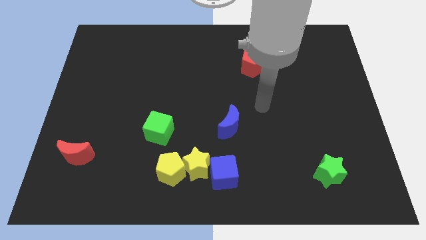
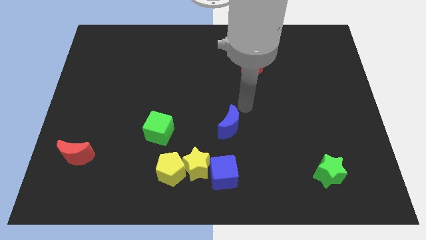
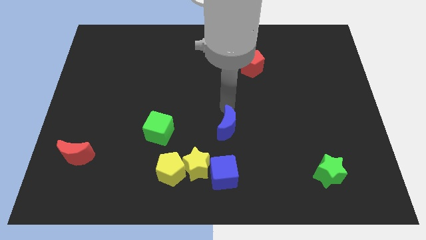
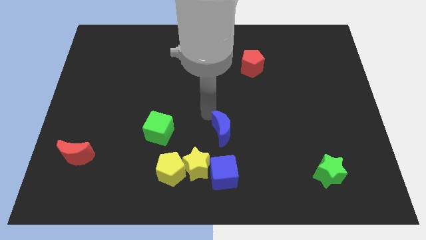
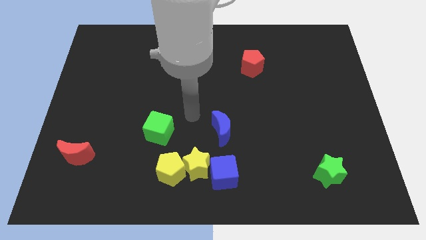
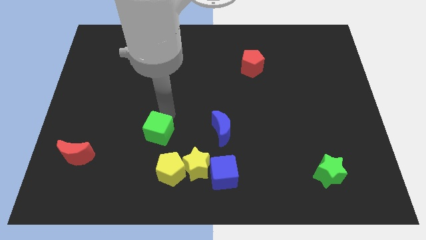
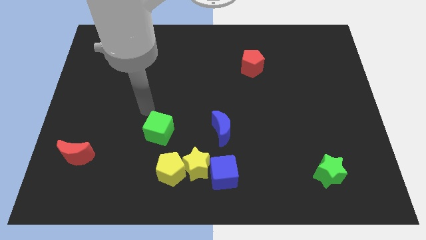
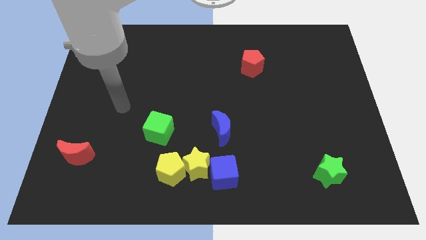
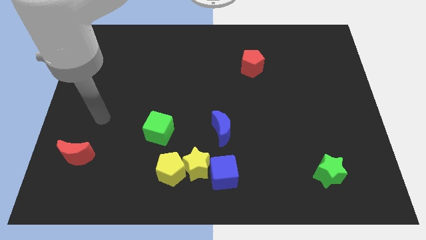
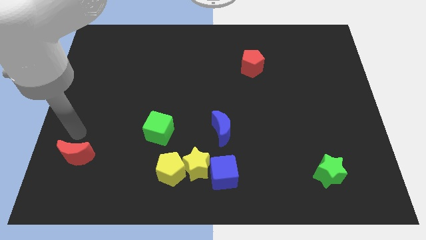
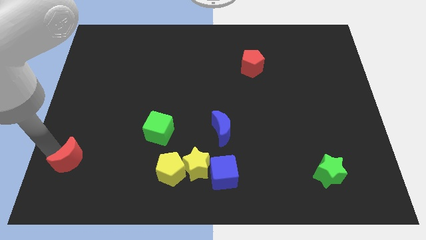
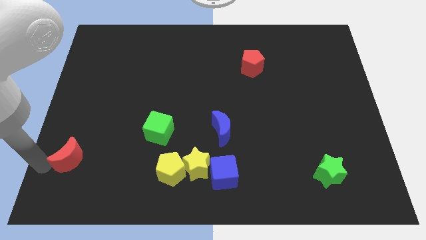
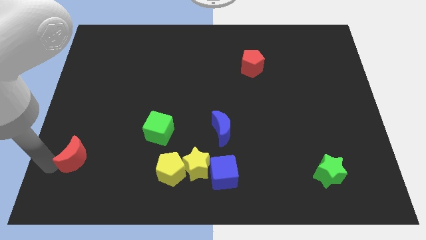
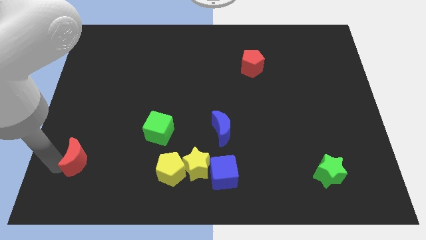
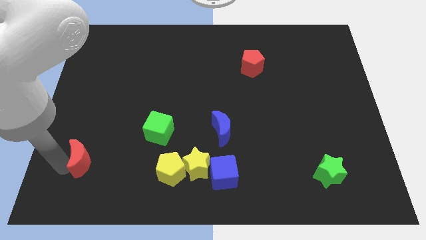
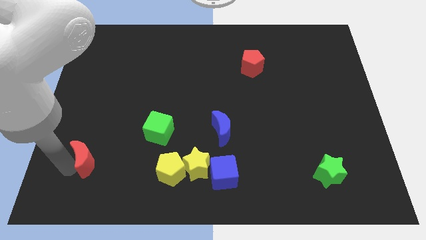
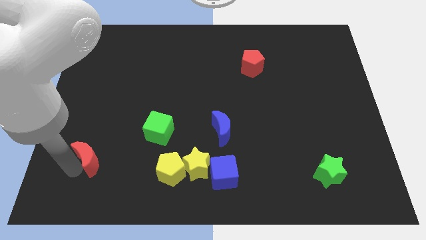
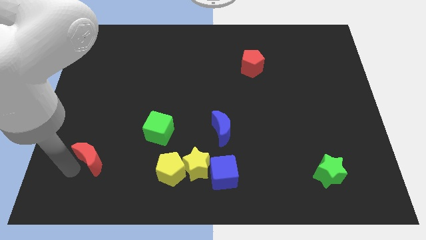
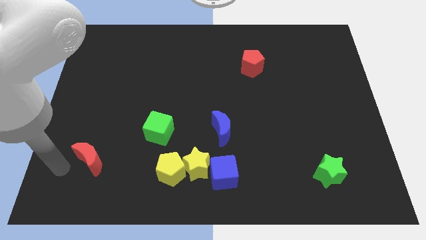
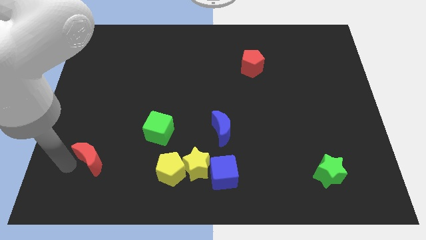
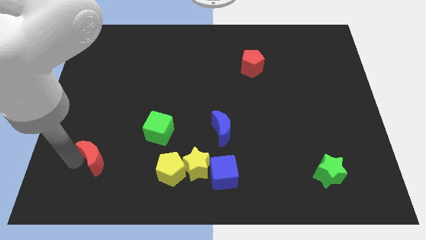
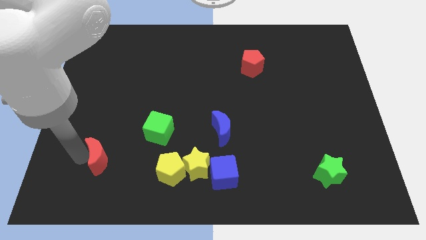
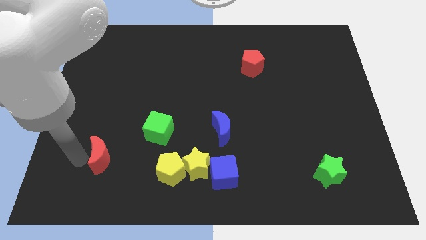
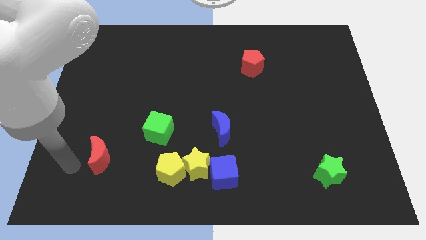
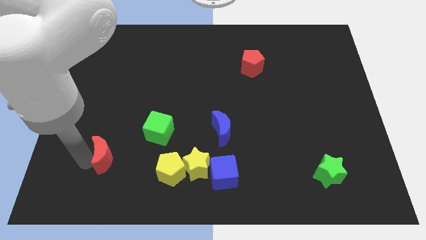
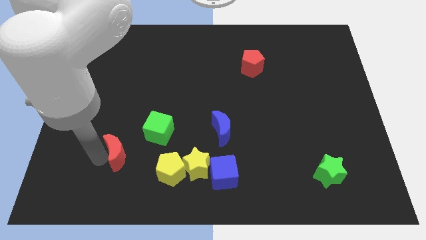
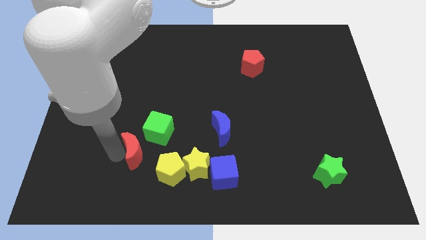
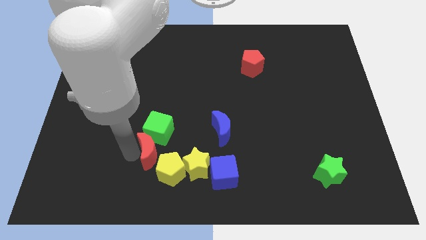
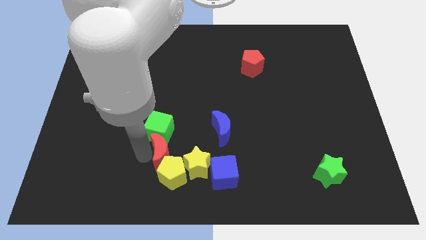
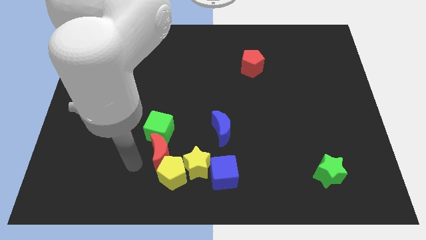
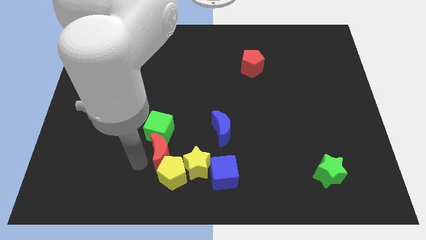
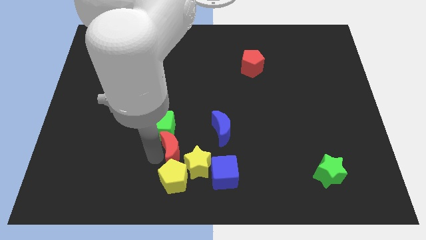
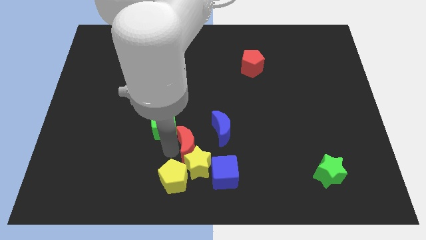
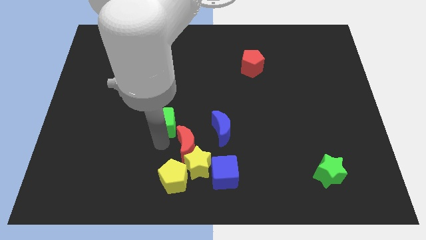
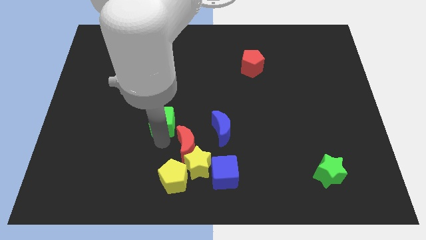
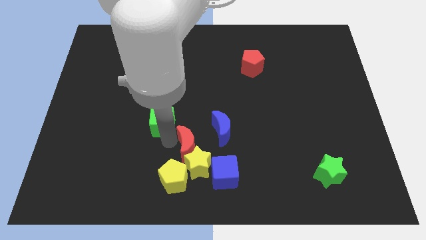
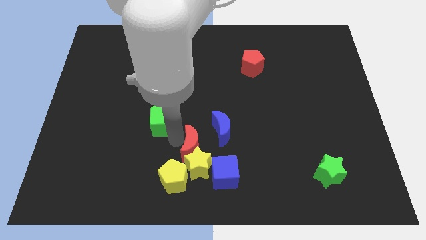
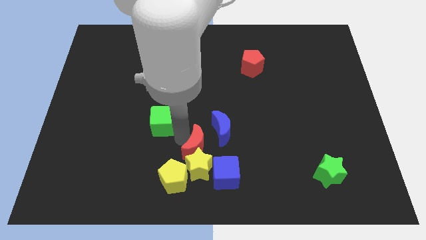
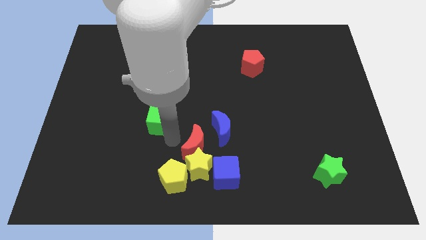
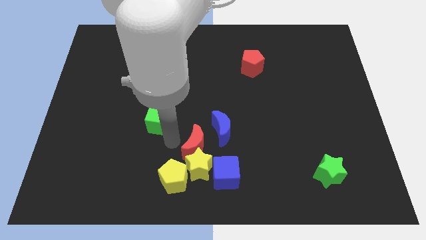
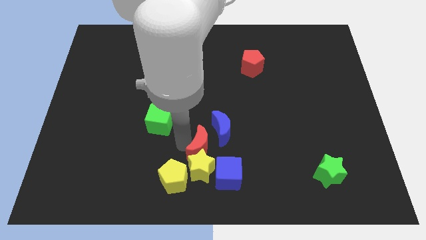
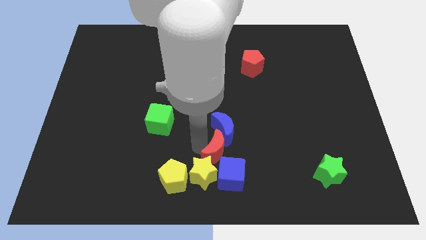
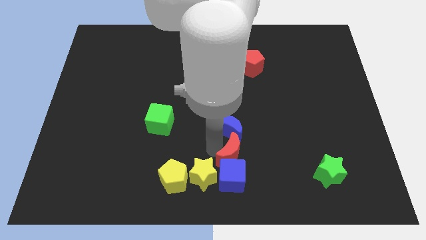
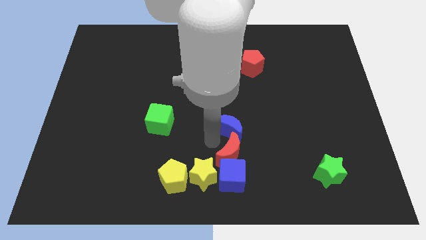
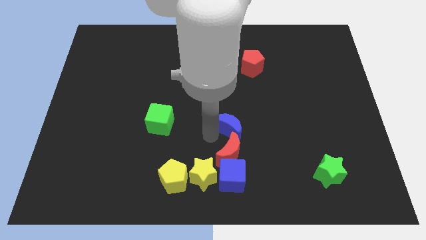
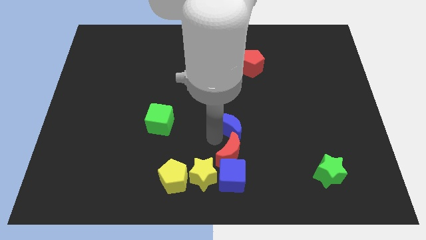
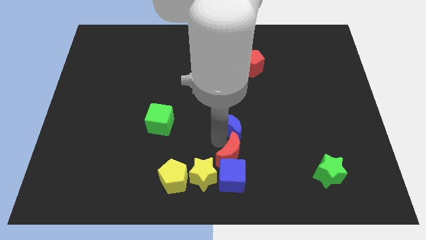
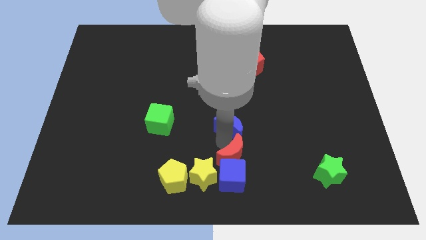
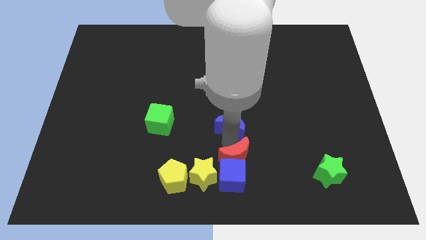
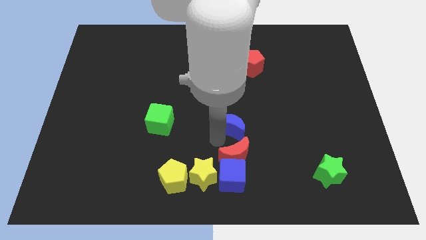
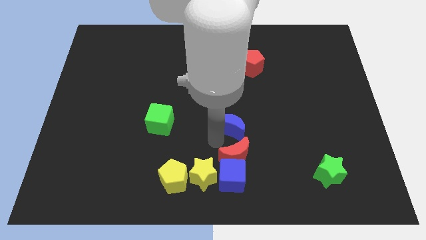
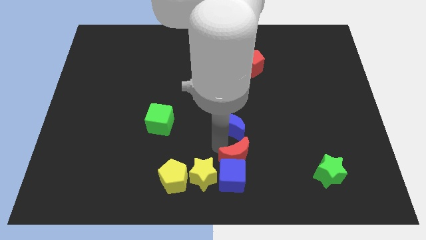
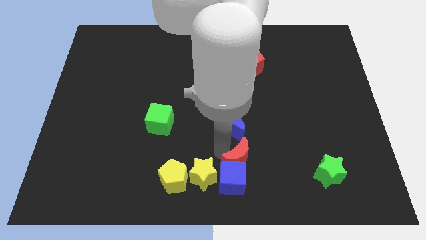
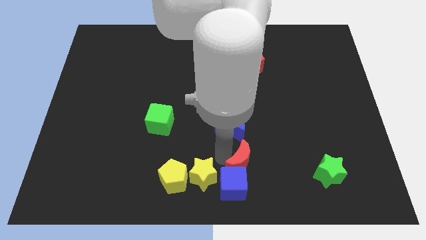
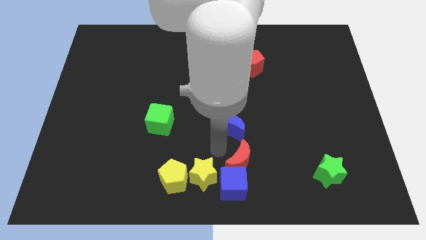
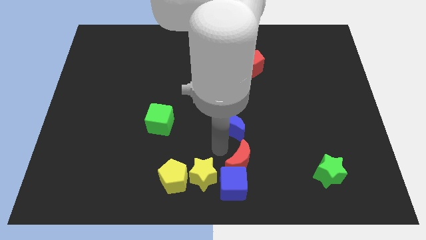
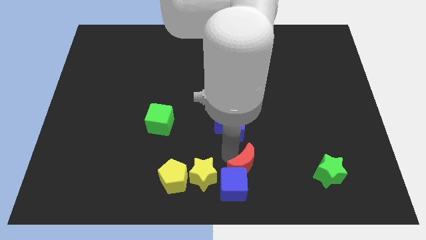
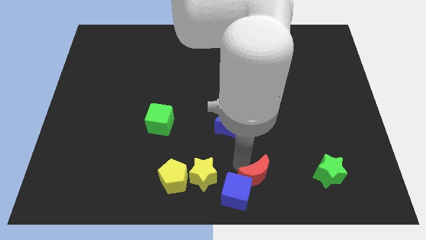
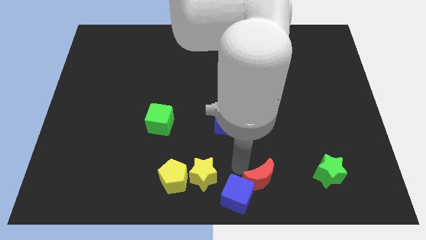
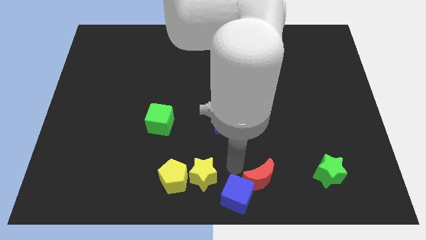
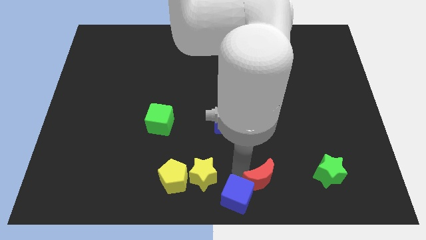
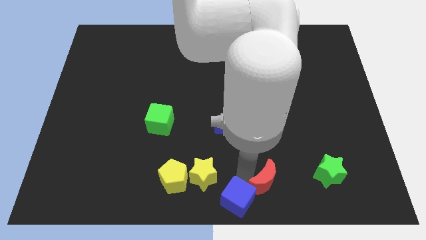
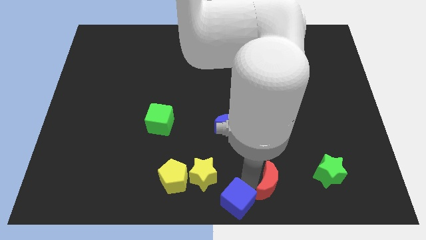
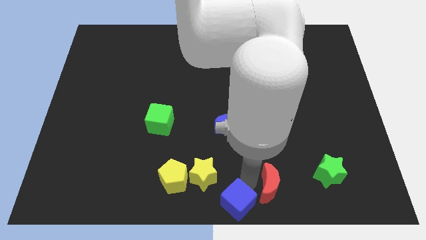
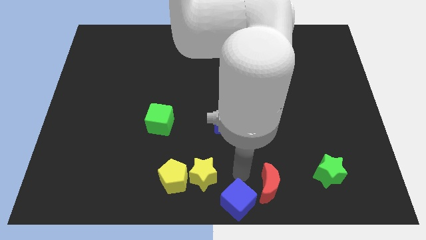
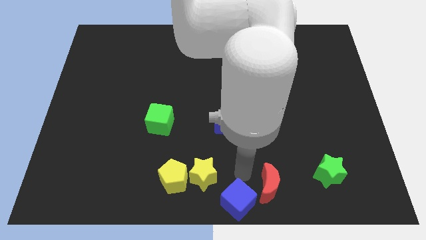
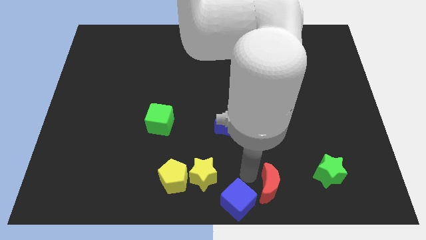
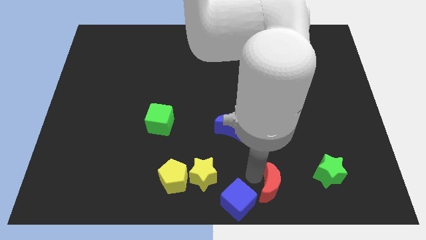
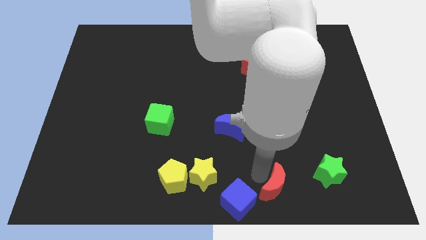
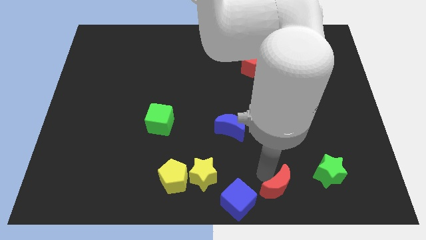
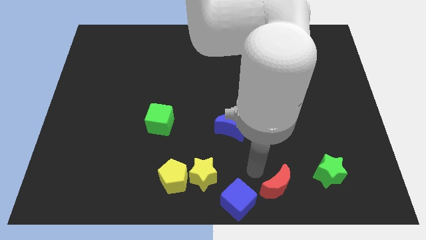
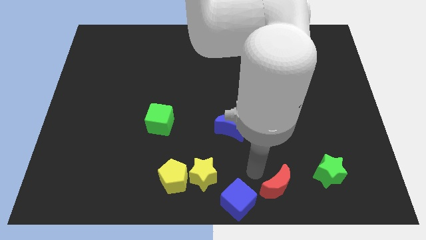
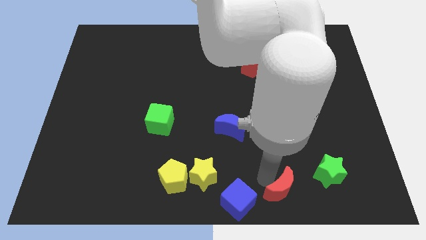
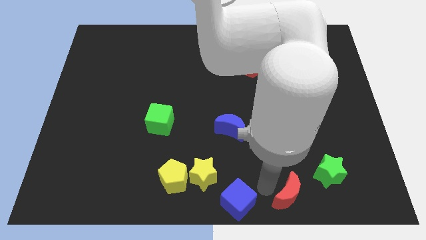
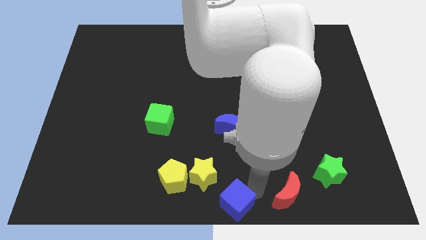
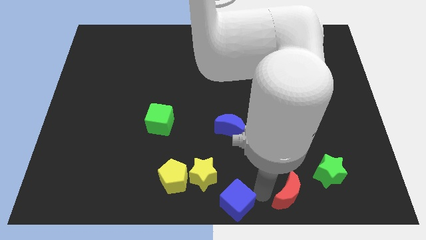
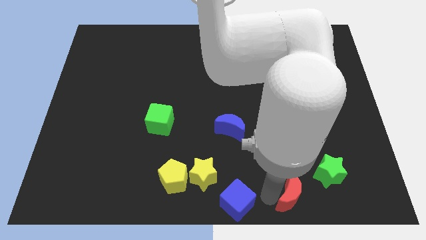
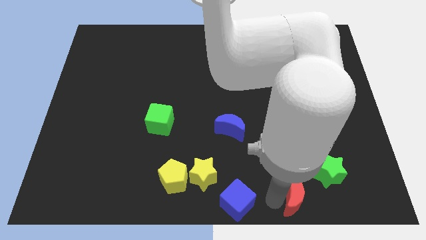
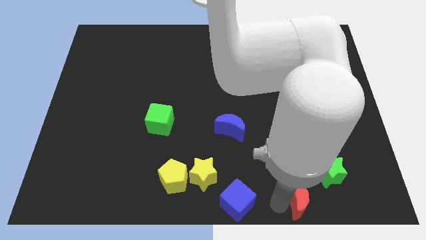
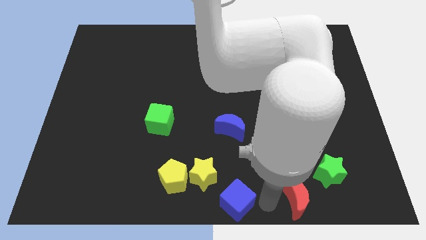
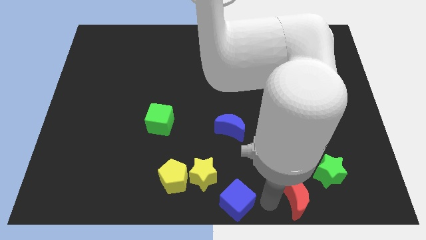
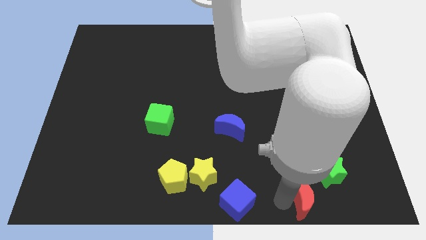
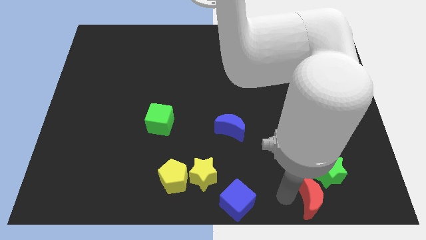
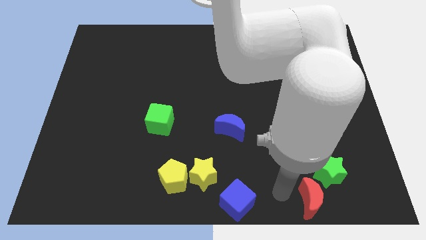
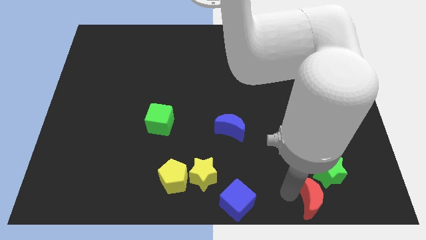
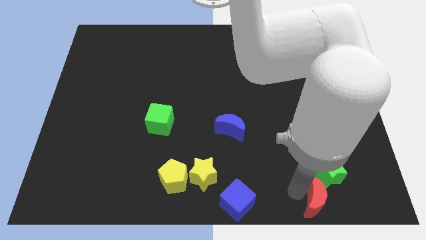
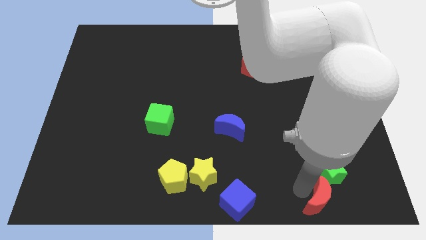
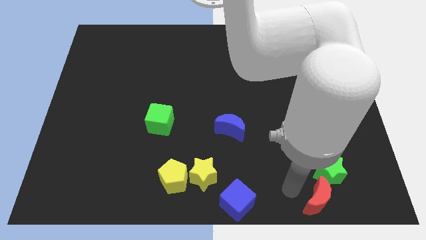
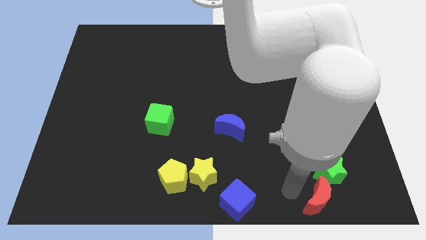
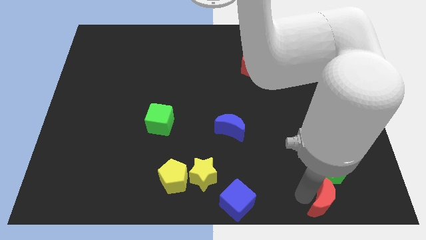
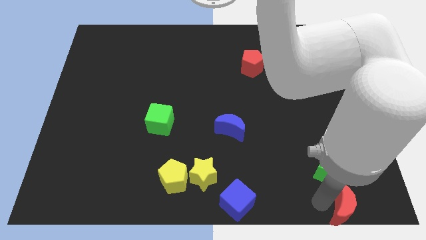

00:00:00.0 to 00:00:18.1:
slide the red moon to the lower right corner
